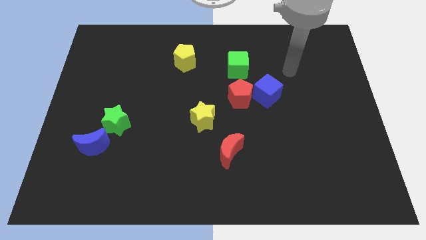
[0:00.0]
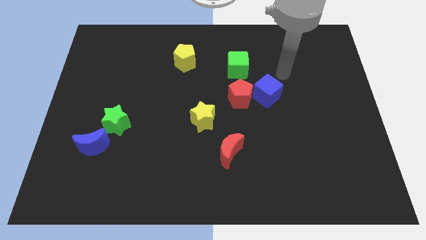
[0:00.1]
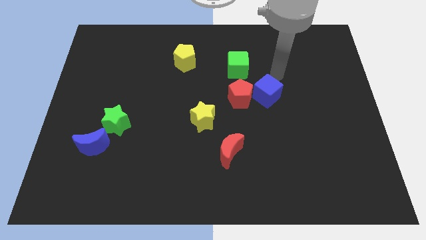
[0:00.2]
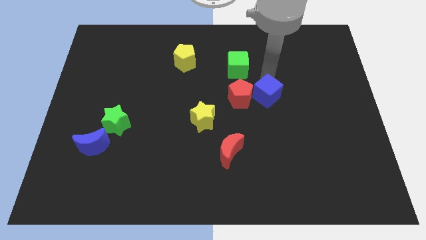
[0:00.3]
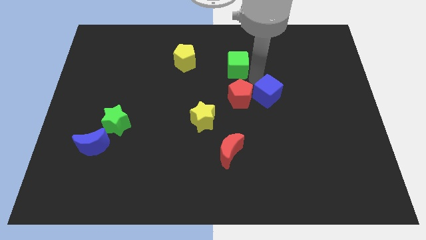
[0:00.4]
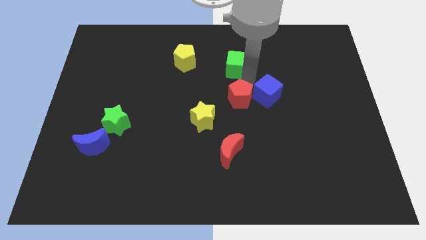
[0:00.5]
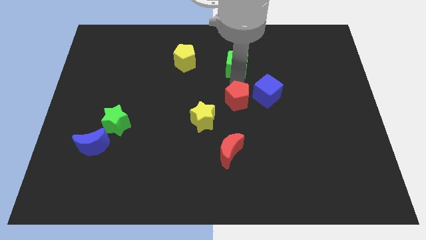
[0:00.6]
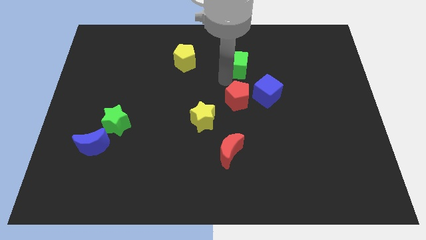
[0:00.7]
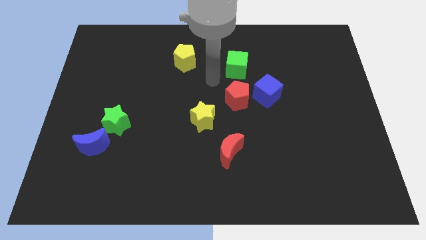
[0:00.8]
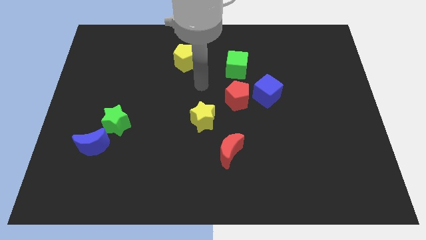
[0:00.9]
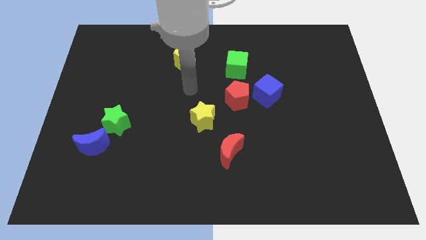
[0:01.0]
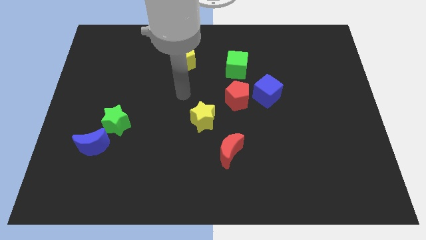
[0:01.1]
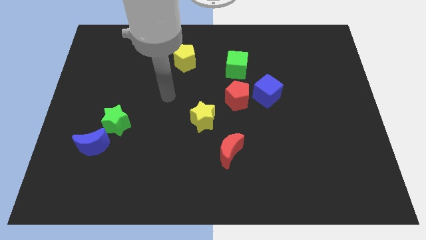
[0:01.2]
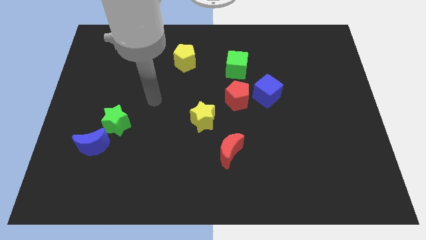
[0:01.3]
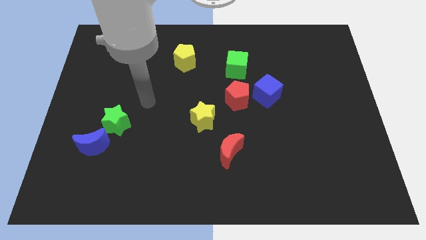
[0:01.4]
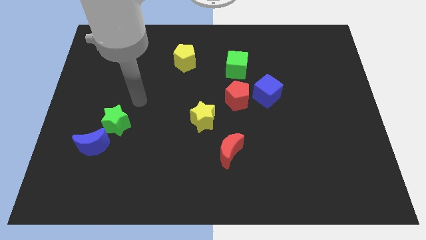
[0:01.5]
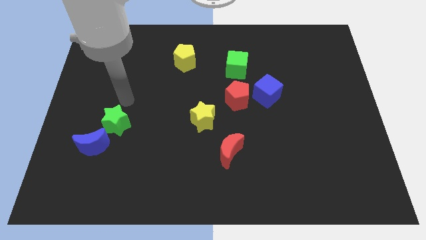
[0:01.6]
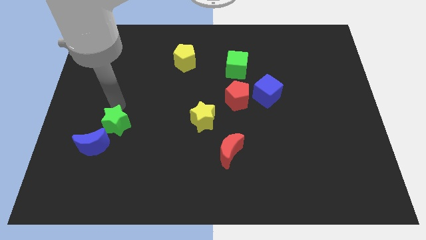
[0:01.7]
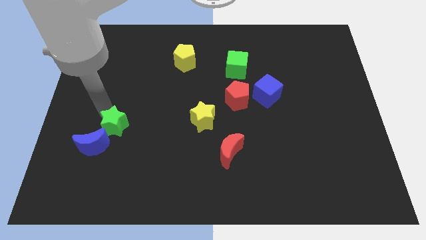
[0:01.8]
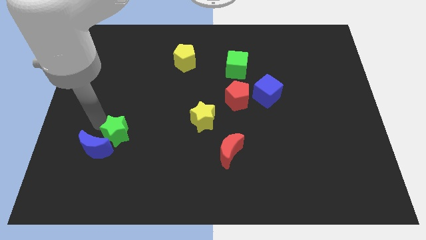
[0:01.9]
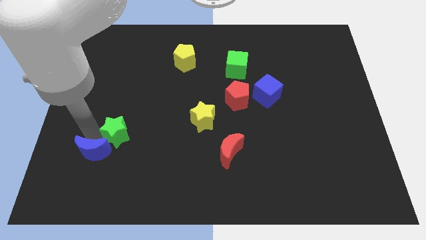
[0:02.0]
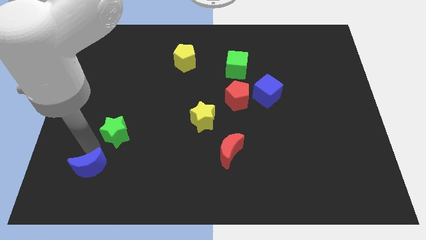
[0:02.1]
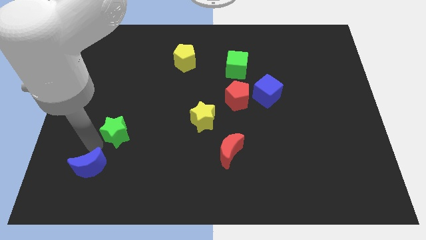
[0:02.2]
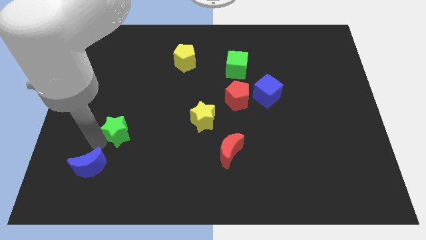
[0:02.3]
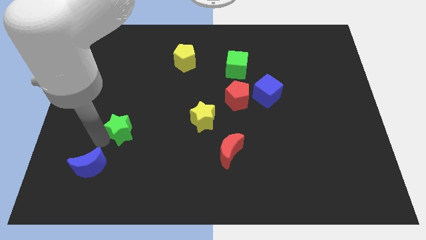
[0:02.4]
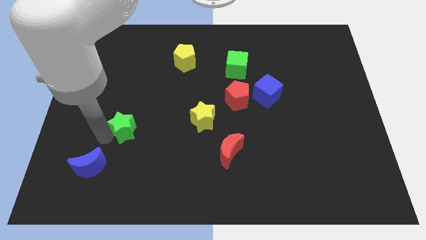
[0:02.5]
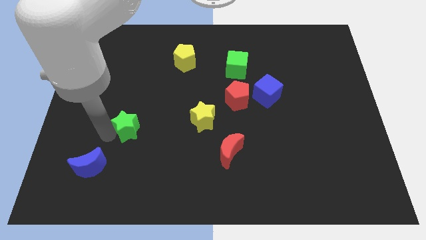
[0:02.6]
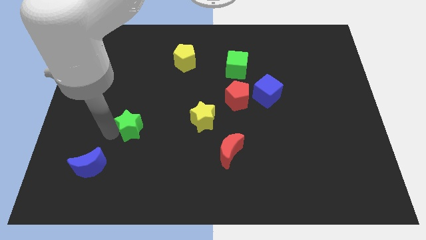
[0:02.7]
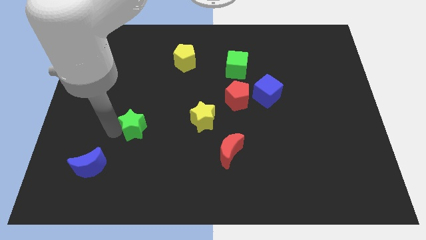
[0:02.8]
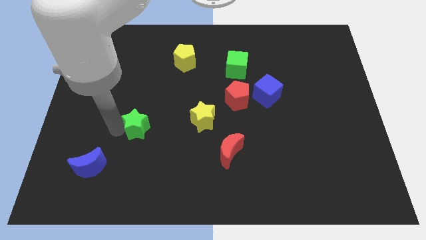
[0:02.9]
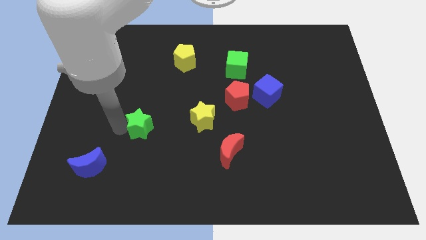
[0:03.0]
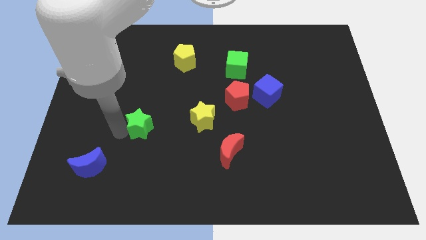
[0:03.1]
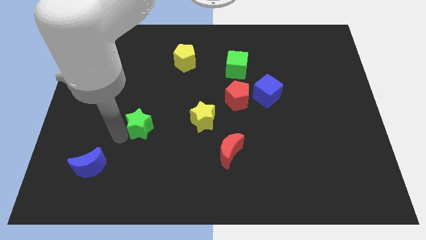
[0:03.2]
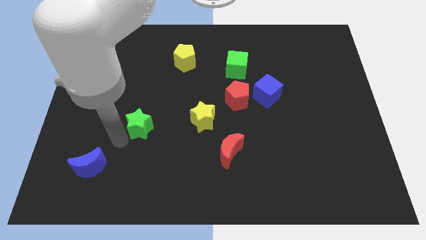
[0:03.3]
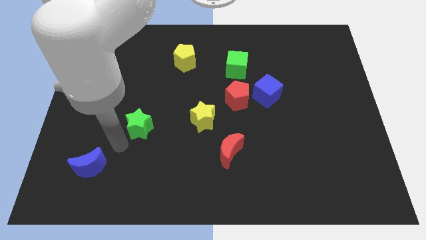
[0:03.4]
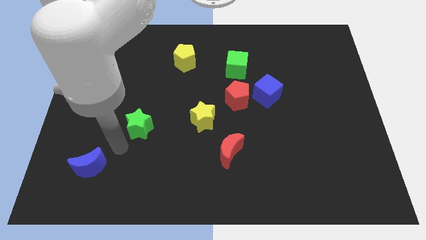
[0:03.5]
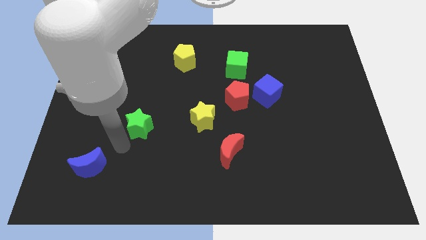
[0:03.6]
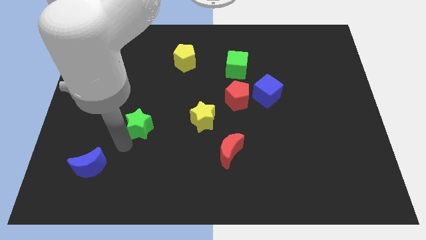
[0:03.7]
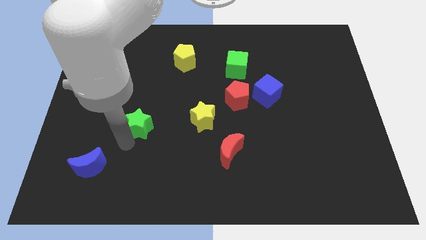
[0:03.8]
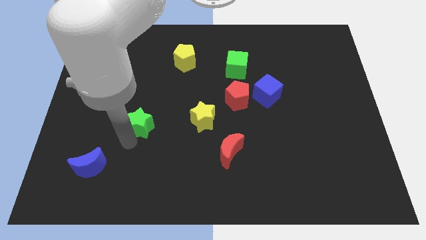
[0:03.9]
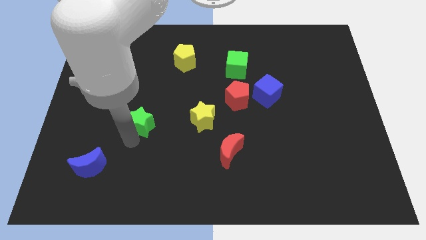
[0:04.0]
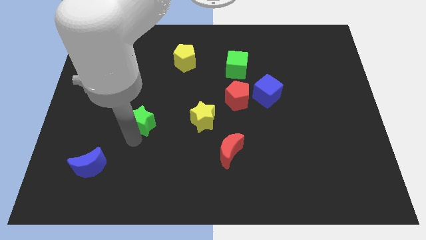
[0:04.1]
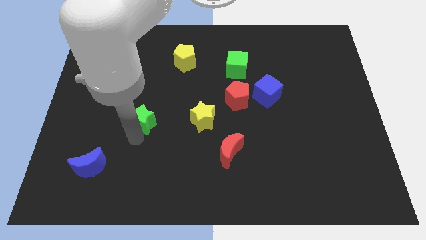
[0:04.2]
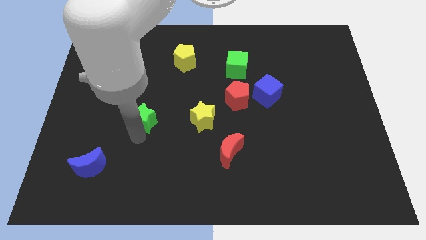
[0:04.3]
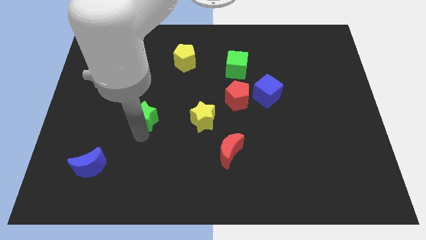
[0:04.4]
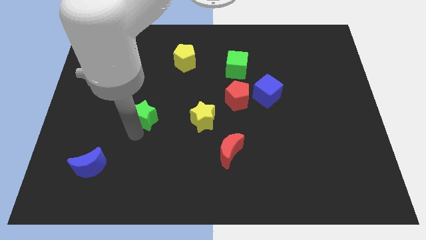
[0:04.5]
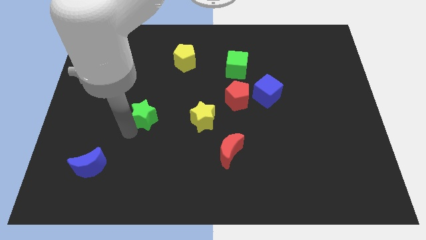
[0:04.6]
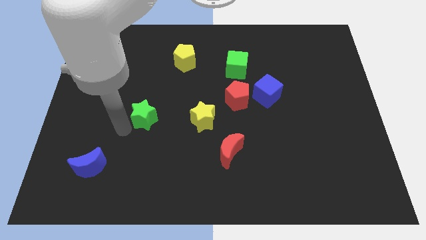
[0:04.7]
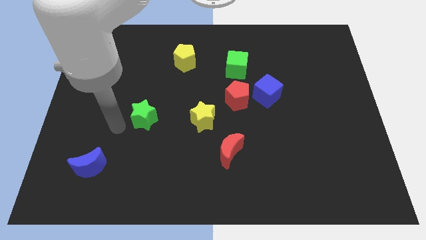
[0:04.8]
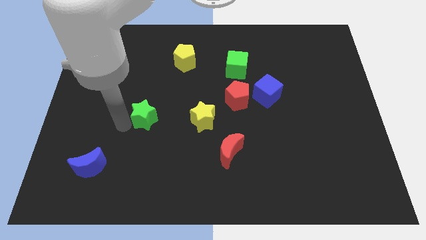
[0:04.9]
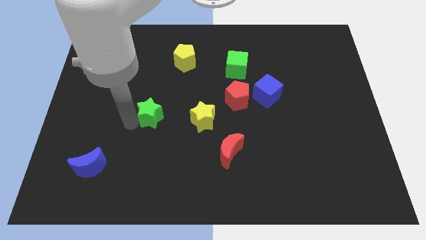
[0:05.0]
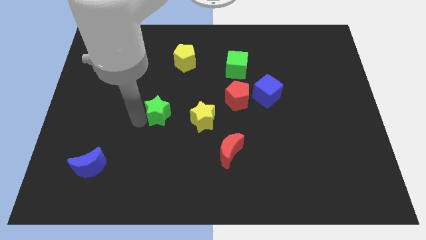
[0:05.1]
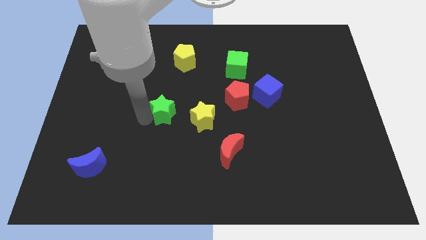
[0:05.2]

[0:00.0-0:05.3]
slide the green star to the middle
